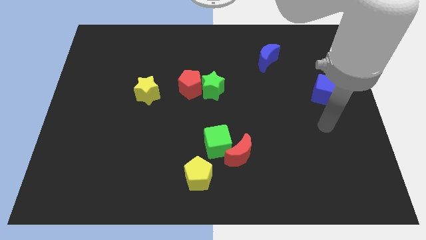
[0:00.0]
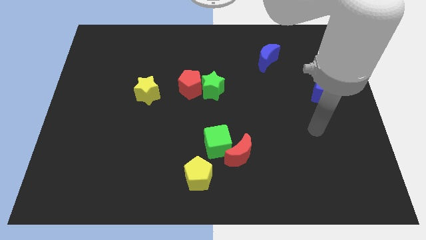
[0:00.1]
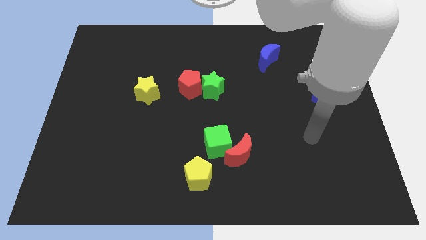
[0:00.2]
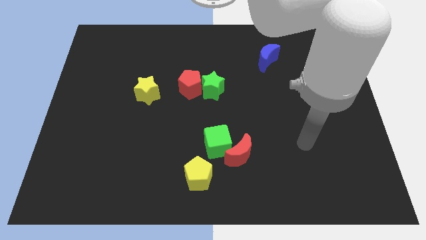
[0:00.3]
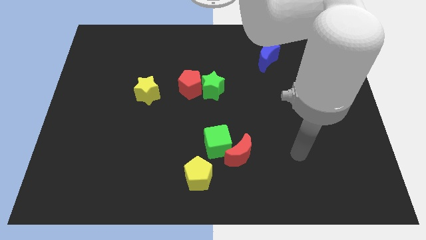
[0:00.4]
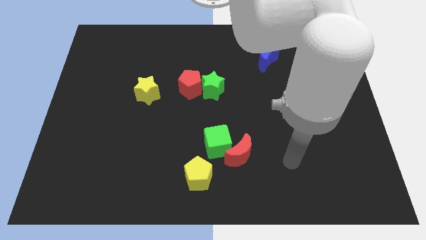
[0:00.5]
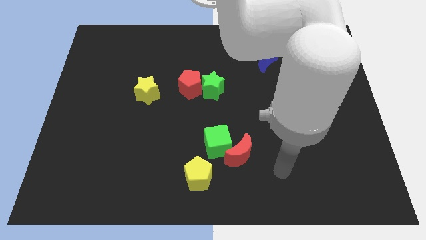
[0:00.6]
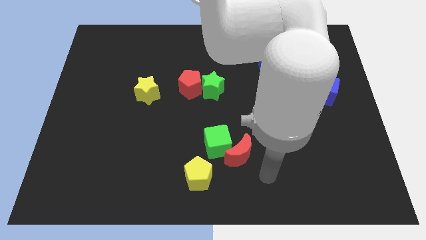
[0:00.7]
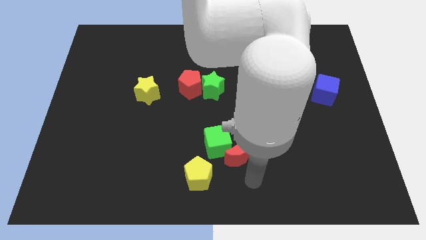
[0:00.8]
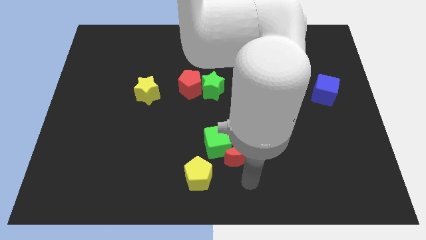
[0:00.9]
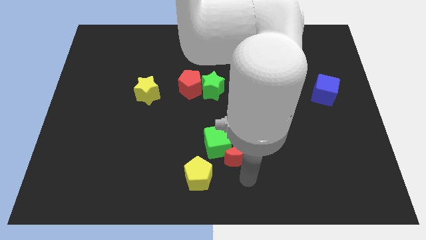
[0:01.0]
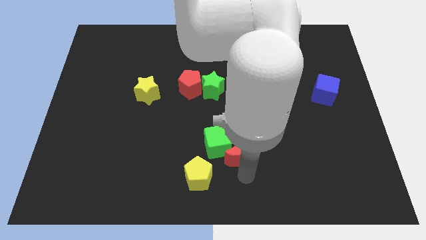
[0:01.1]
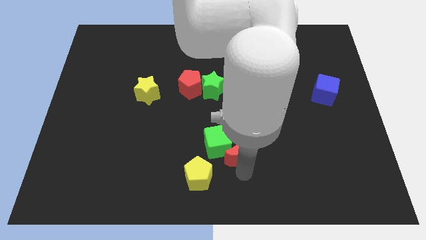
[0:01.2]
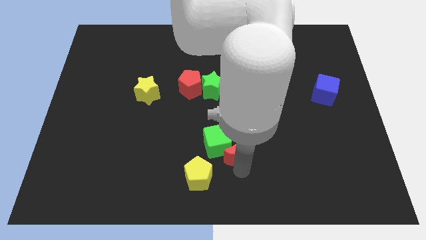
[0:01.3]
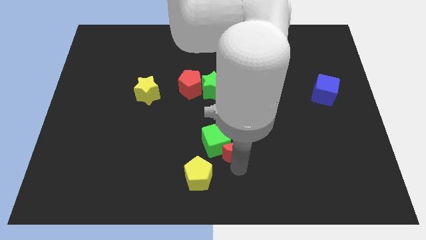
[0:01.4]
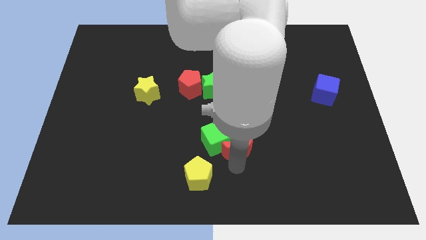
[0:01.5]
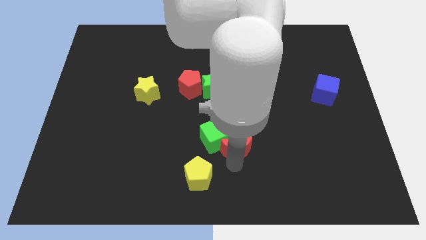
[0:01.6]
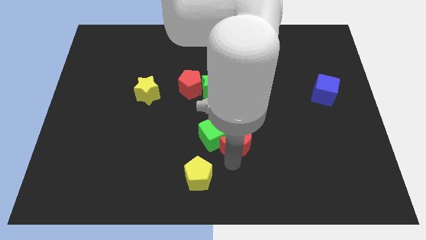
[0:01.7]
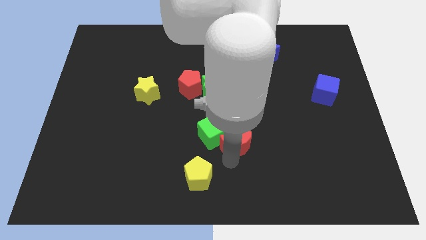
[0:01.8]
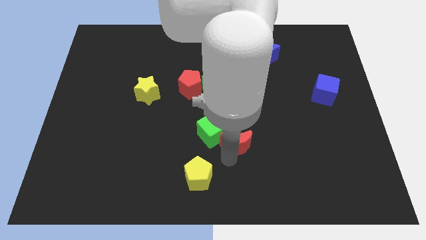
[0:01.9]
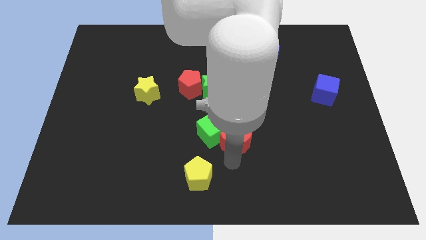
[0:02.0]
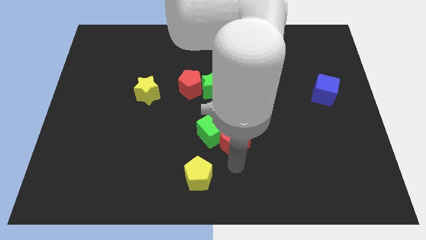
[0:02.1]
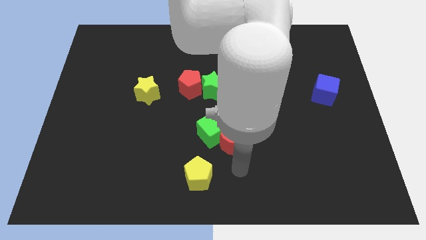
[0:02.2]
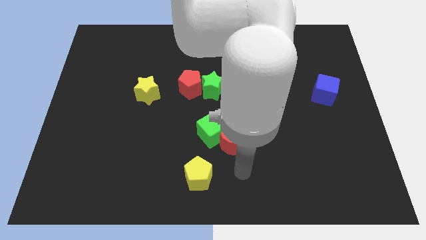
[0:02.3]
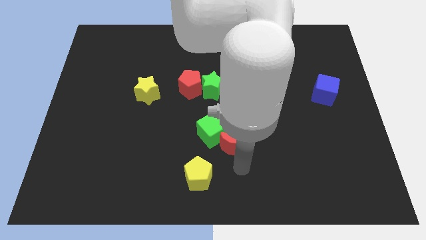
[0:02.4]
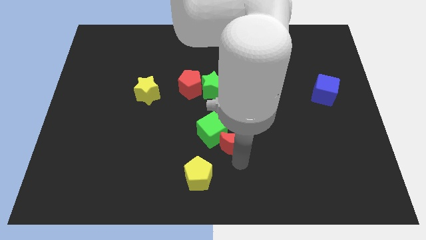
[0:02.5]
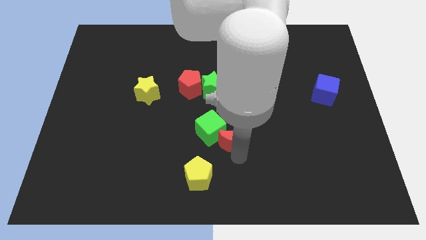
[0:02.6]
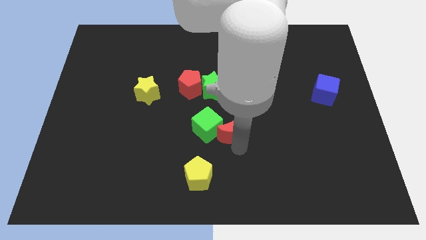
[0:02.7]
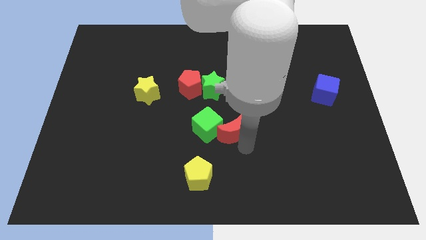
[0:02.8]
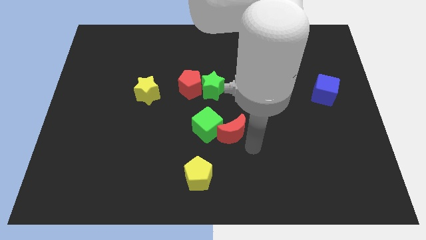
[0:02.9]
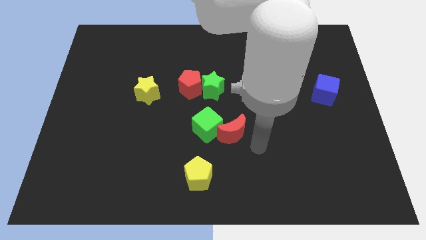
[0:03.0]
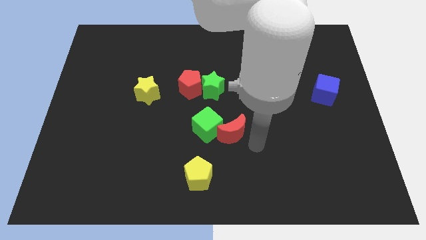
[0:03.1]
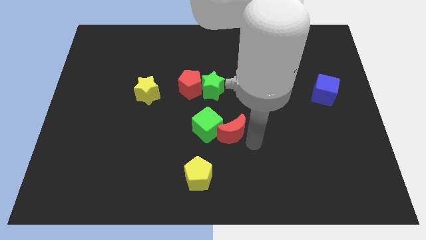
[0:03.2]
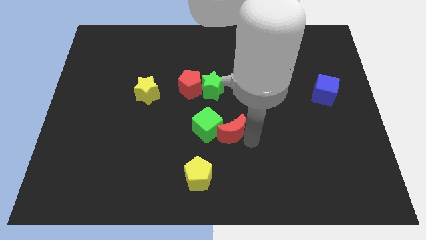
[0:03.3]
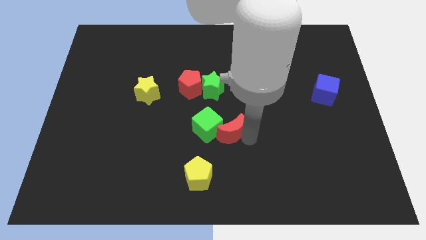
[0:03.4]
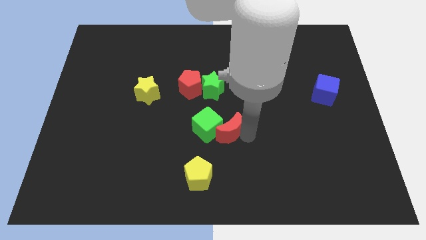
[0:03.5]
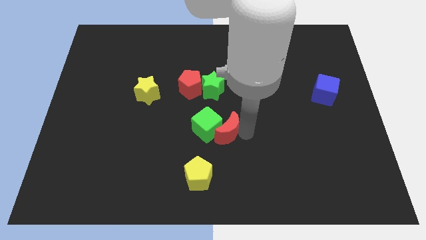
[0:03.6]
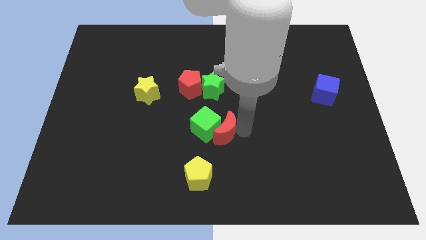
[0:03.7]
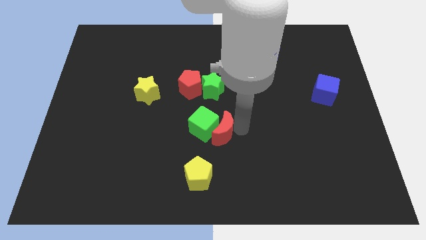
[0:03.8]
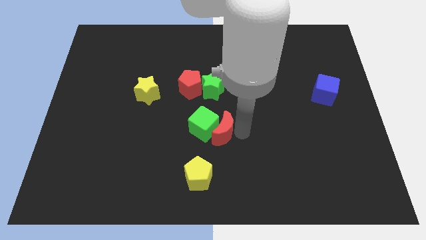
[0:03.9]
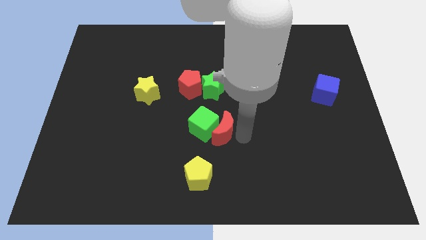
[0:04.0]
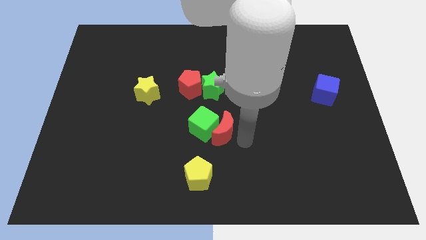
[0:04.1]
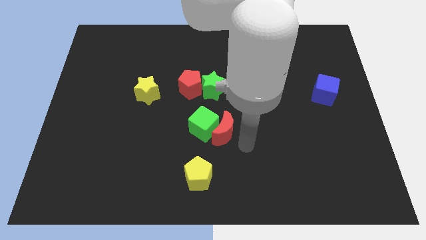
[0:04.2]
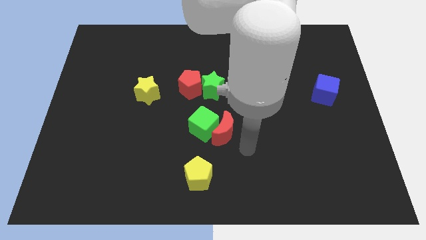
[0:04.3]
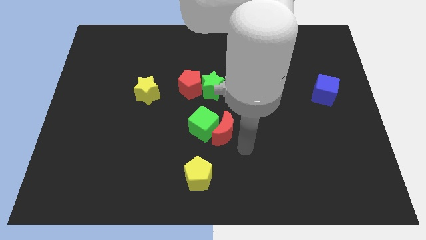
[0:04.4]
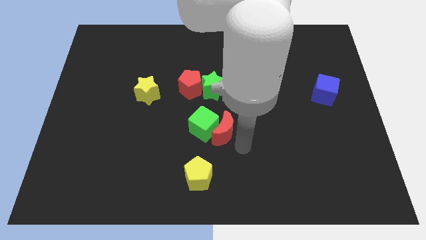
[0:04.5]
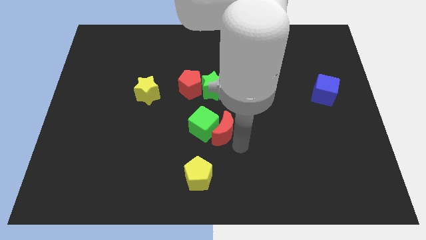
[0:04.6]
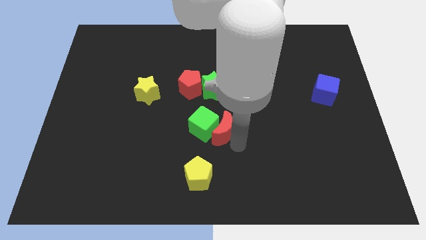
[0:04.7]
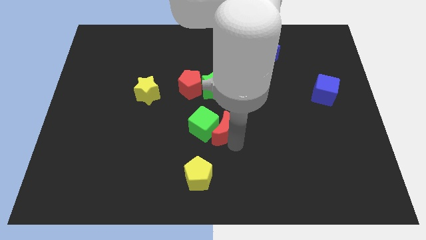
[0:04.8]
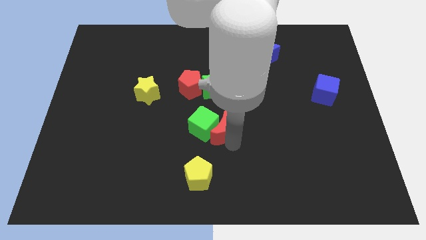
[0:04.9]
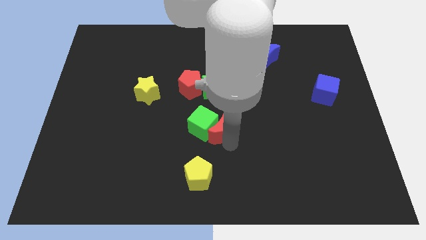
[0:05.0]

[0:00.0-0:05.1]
move the red moon up and then left somewhat

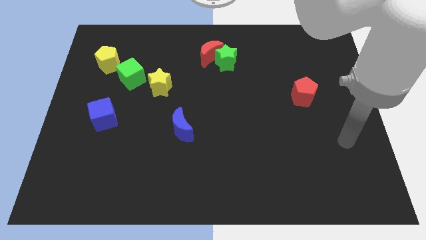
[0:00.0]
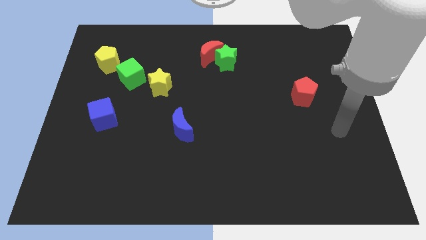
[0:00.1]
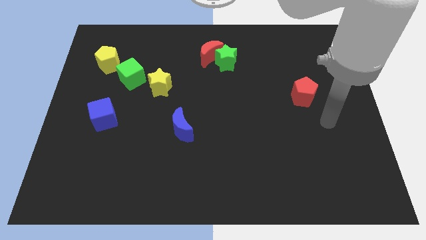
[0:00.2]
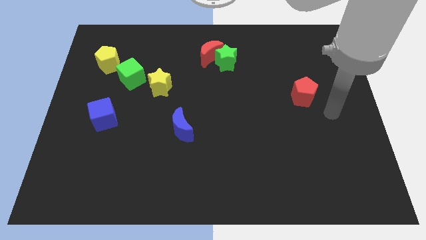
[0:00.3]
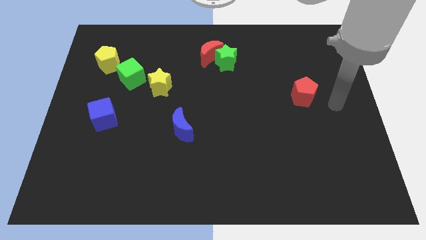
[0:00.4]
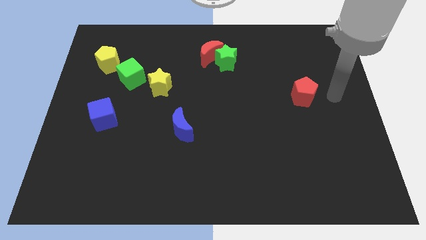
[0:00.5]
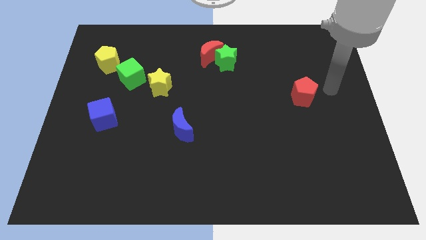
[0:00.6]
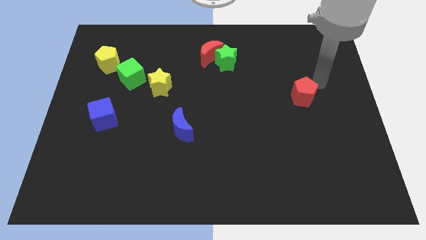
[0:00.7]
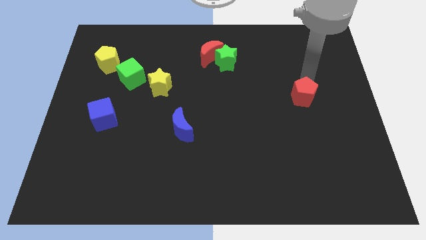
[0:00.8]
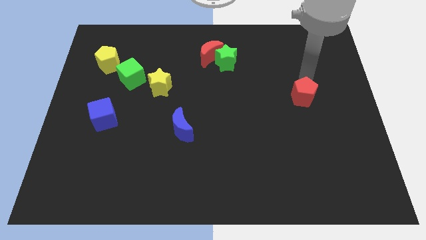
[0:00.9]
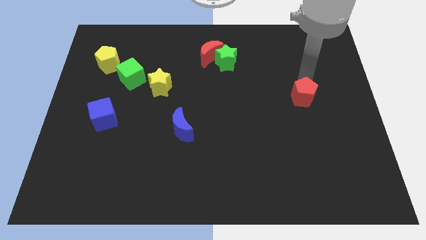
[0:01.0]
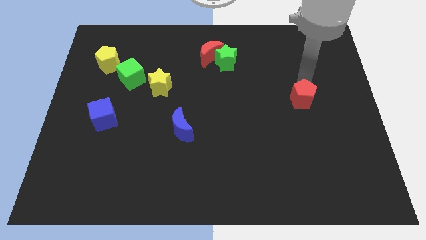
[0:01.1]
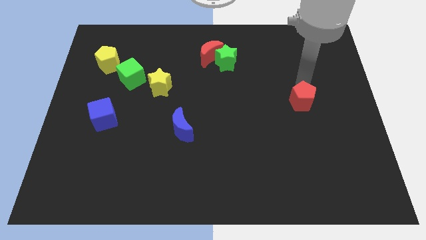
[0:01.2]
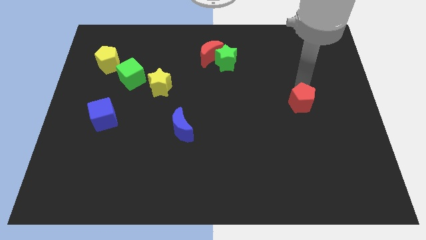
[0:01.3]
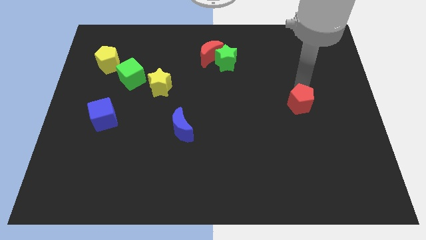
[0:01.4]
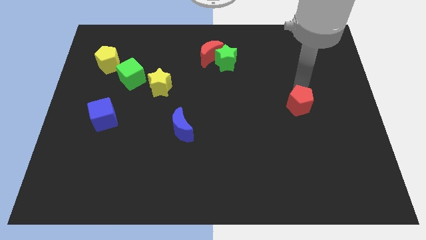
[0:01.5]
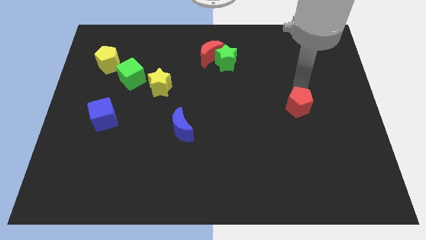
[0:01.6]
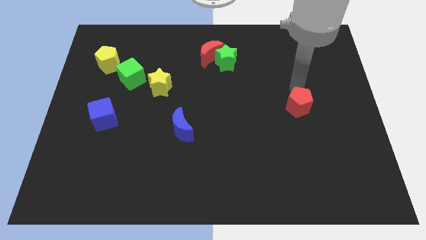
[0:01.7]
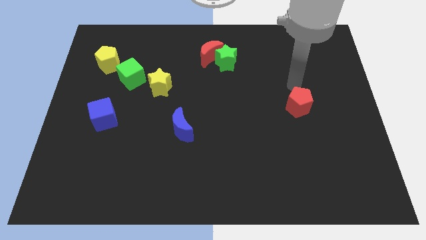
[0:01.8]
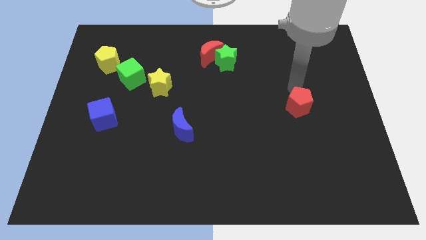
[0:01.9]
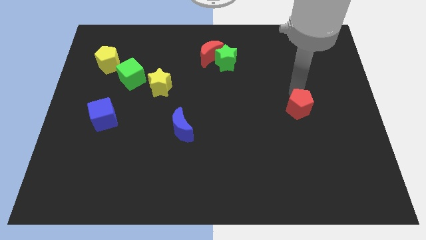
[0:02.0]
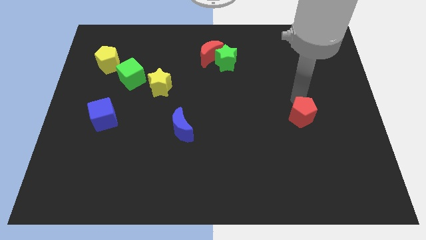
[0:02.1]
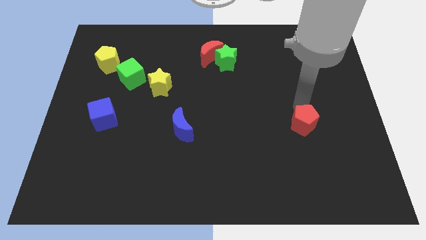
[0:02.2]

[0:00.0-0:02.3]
slide the red pentagon a little bit down

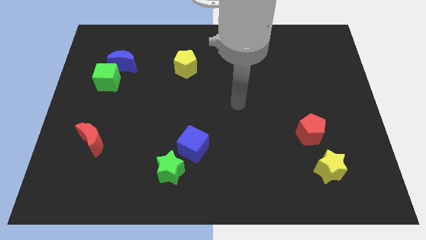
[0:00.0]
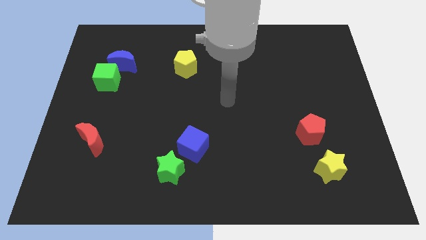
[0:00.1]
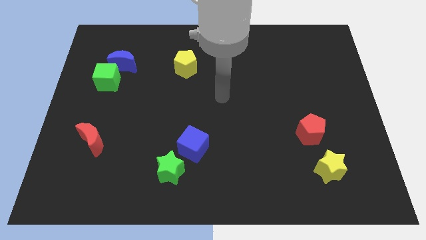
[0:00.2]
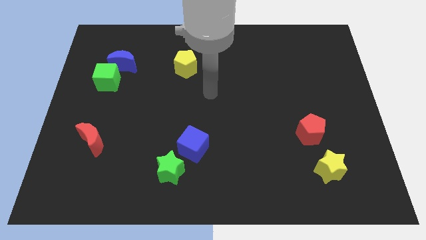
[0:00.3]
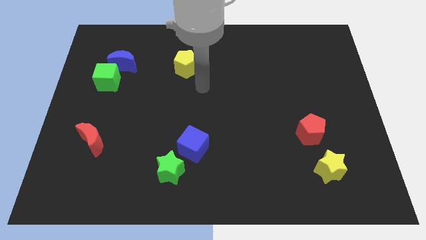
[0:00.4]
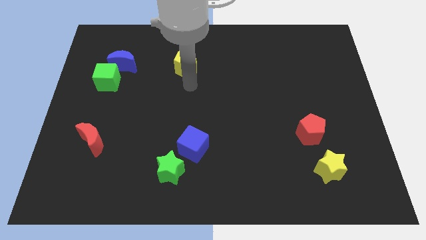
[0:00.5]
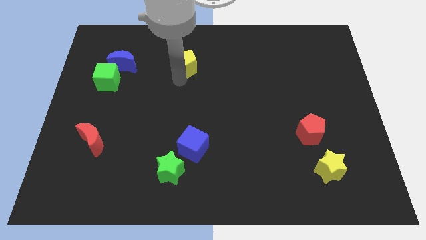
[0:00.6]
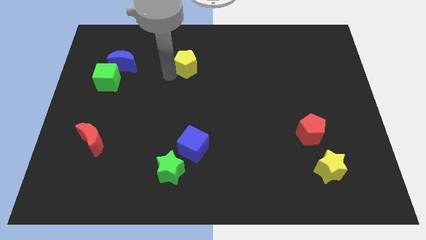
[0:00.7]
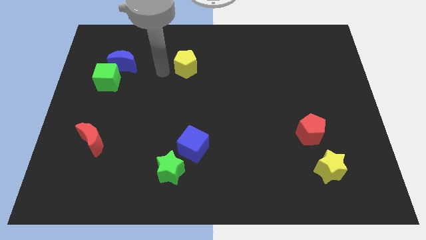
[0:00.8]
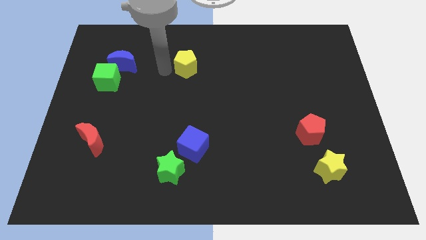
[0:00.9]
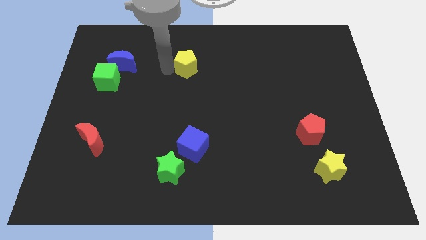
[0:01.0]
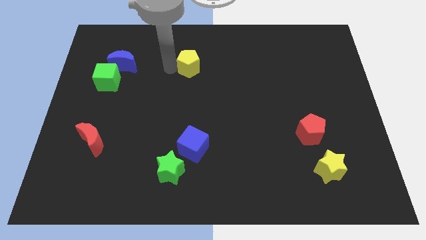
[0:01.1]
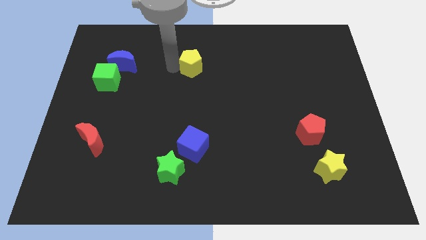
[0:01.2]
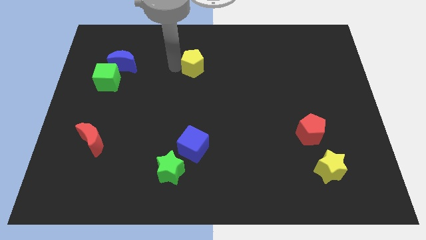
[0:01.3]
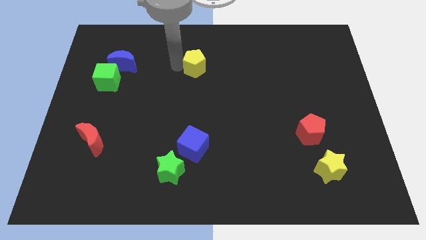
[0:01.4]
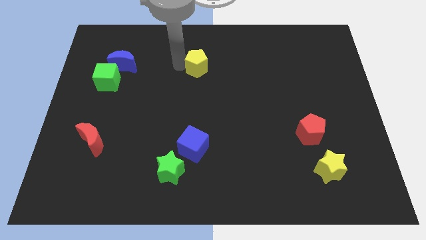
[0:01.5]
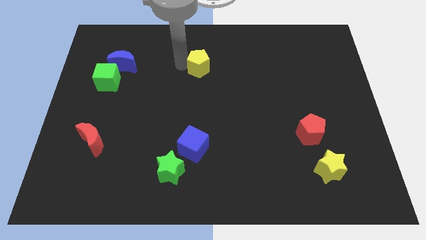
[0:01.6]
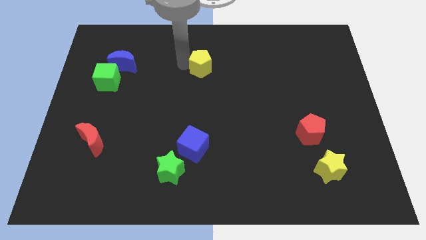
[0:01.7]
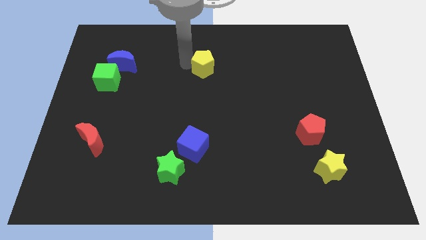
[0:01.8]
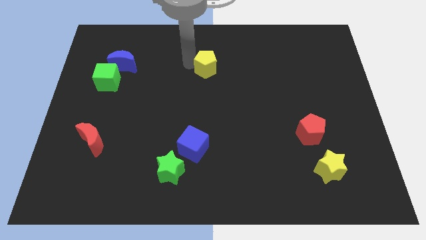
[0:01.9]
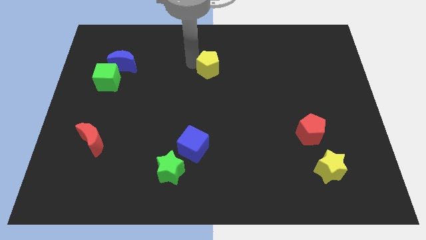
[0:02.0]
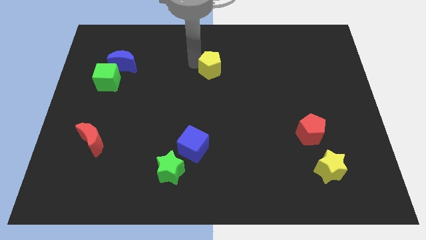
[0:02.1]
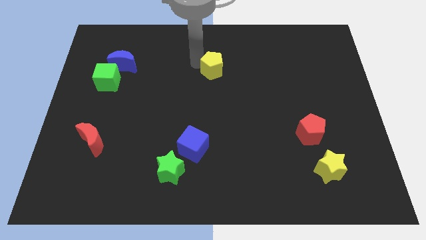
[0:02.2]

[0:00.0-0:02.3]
slightly move the yellow pentagon to the right
